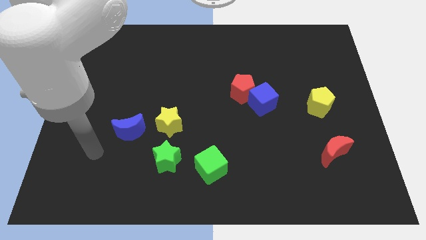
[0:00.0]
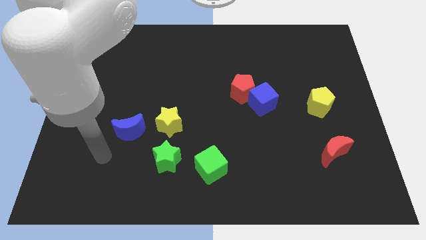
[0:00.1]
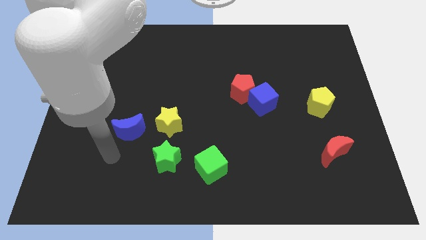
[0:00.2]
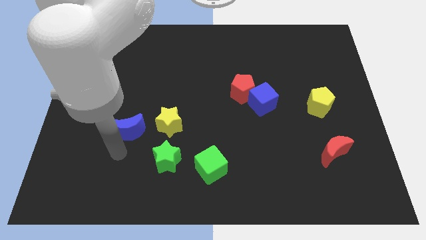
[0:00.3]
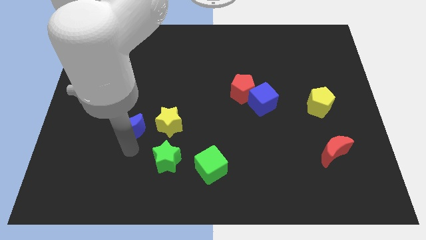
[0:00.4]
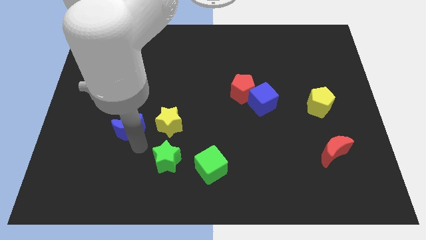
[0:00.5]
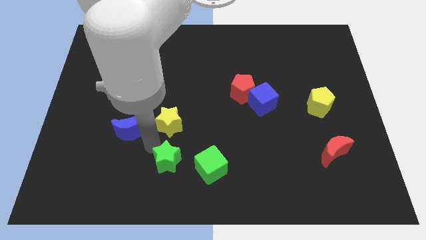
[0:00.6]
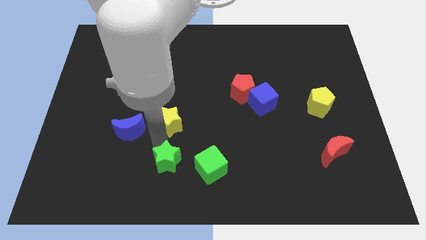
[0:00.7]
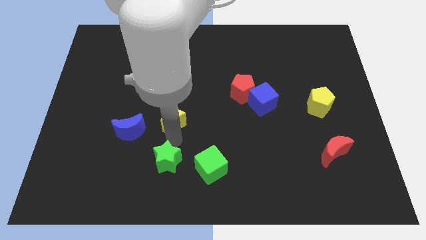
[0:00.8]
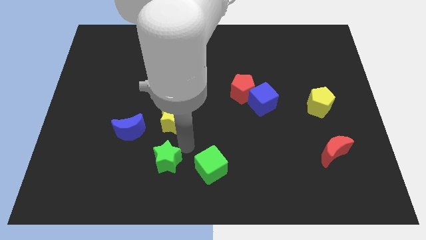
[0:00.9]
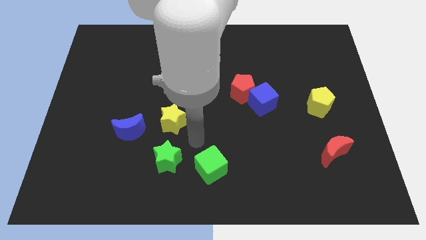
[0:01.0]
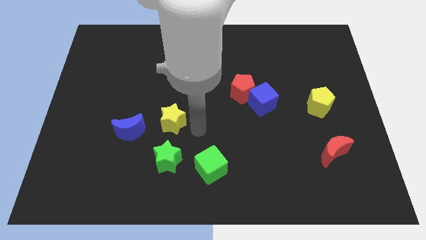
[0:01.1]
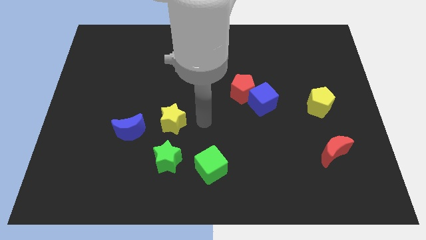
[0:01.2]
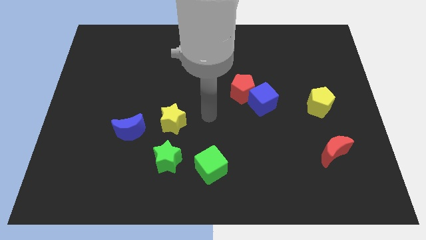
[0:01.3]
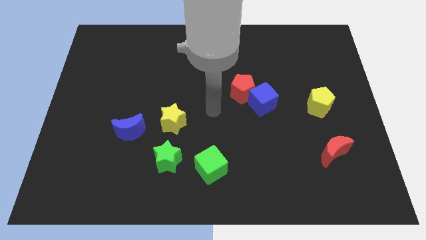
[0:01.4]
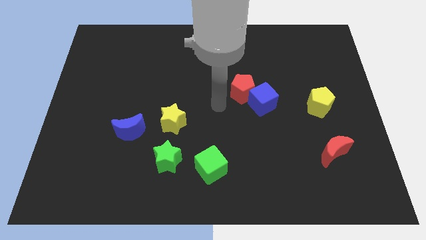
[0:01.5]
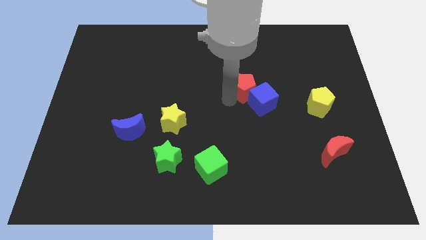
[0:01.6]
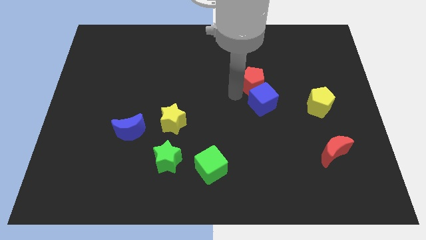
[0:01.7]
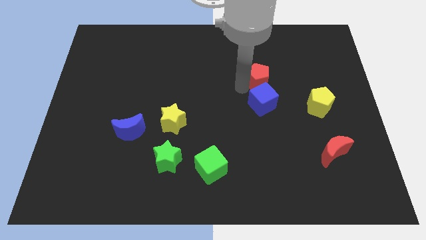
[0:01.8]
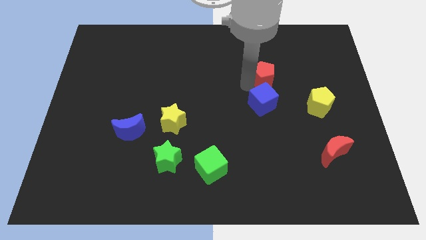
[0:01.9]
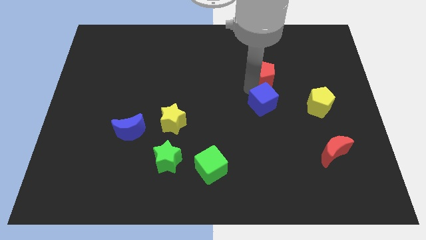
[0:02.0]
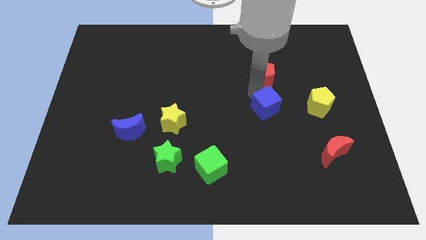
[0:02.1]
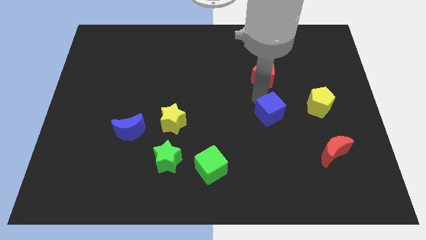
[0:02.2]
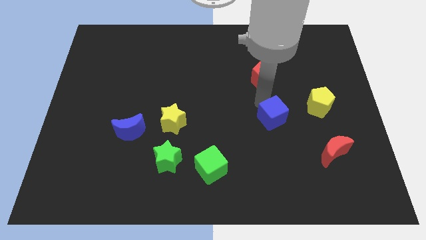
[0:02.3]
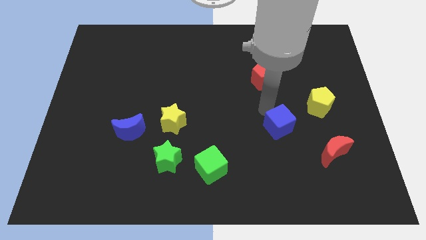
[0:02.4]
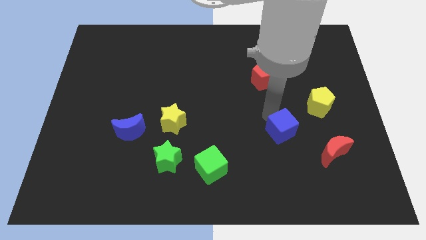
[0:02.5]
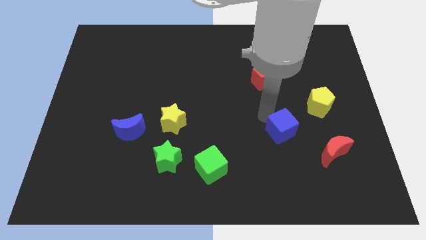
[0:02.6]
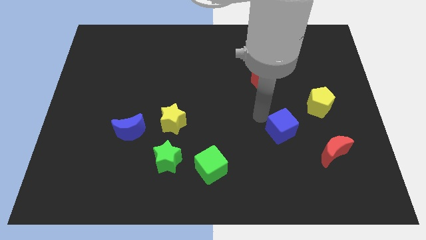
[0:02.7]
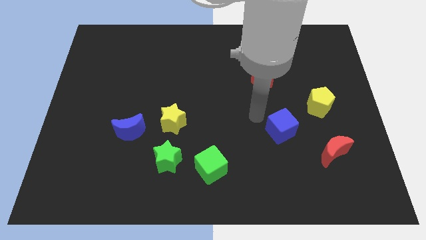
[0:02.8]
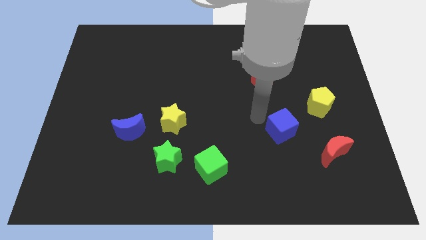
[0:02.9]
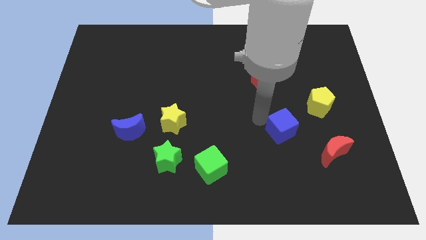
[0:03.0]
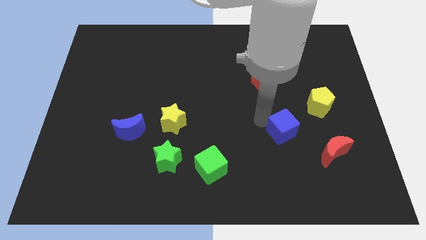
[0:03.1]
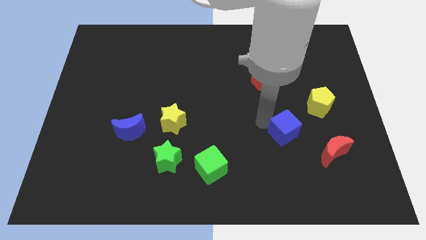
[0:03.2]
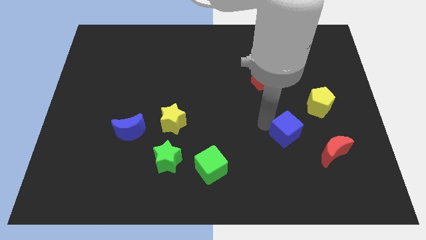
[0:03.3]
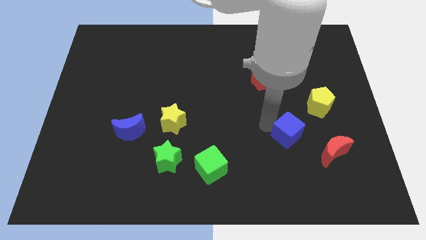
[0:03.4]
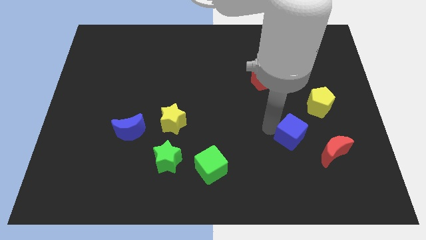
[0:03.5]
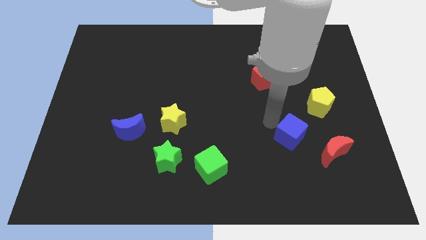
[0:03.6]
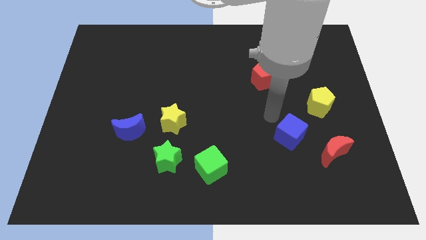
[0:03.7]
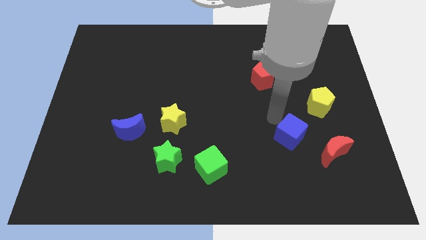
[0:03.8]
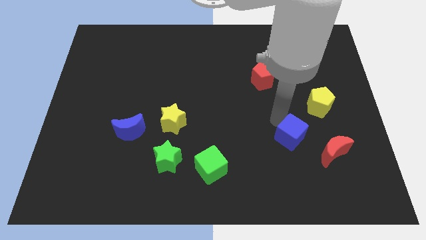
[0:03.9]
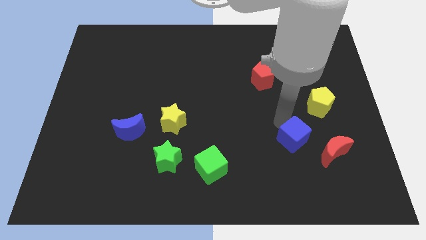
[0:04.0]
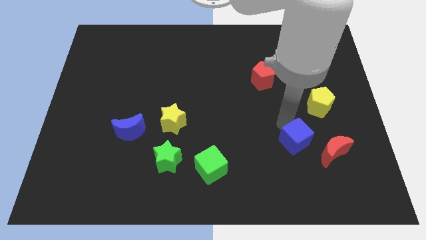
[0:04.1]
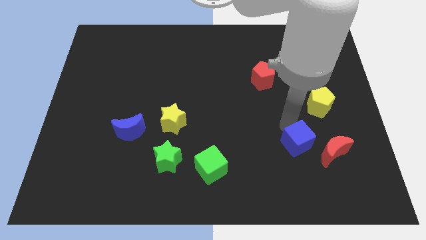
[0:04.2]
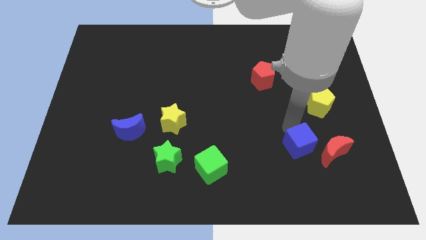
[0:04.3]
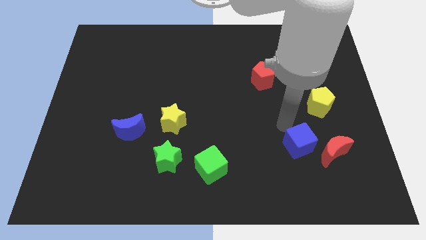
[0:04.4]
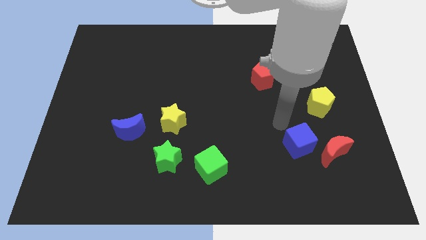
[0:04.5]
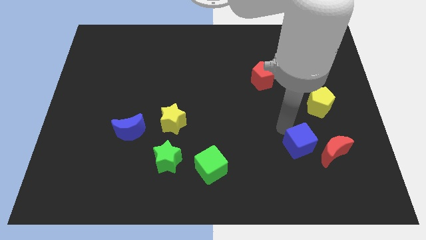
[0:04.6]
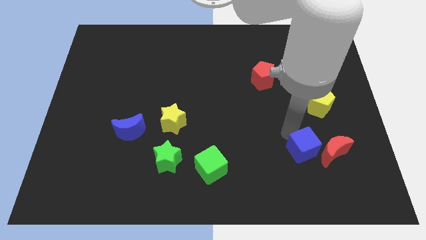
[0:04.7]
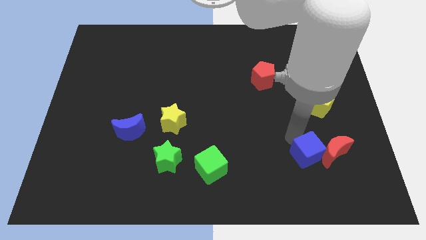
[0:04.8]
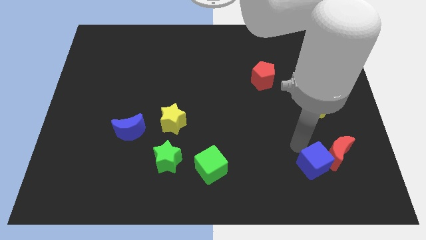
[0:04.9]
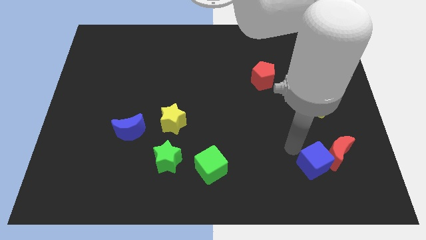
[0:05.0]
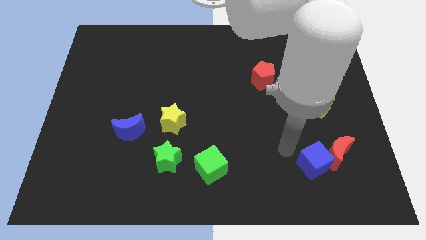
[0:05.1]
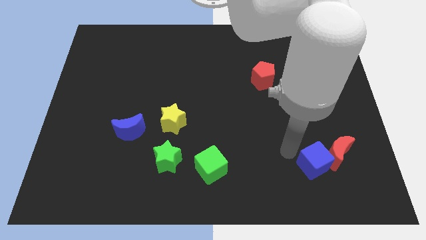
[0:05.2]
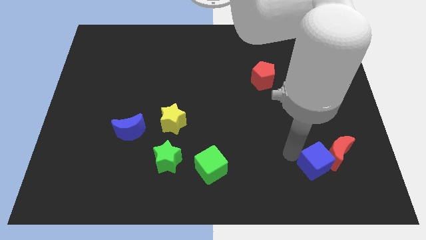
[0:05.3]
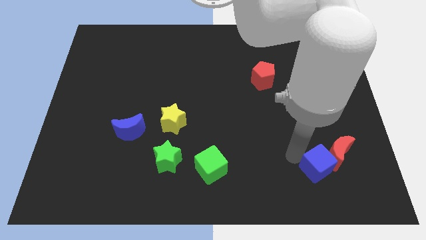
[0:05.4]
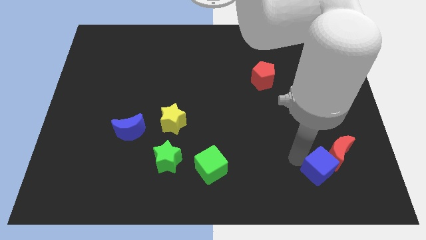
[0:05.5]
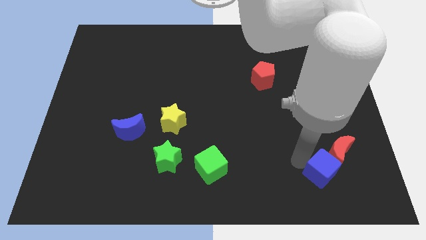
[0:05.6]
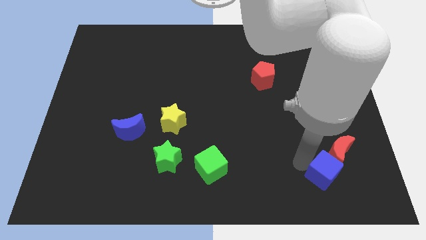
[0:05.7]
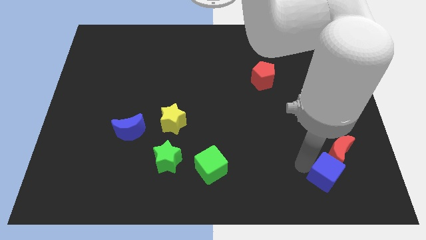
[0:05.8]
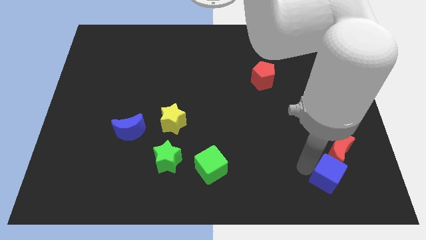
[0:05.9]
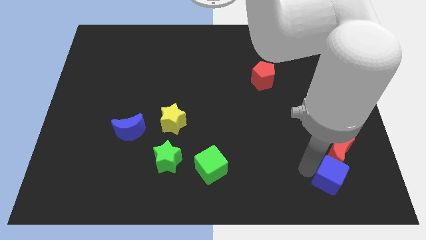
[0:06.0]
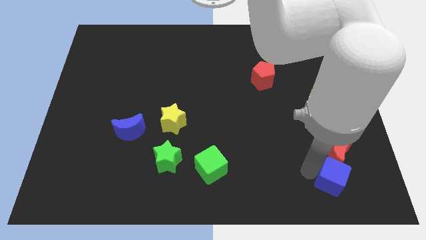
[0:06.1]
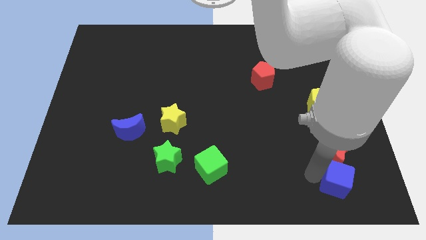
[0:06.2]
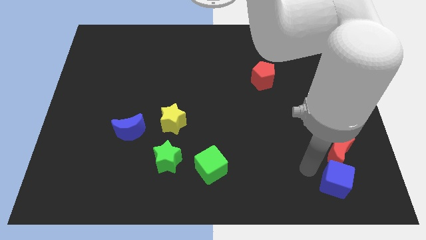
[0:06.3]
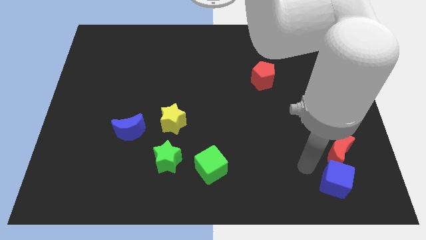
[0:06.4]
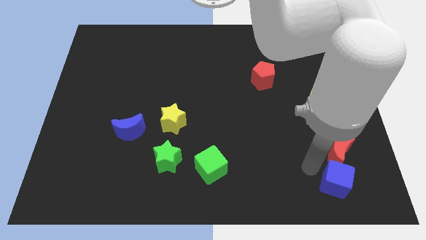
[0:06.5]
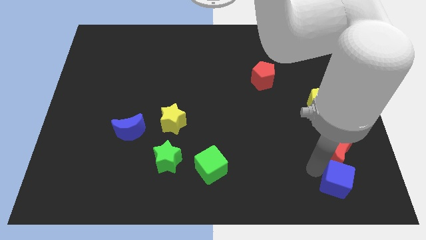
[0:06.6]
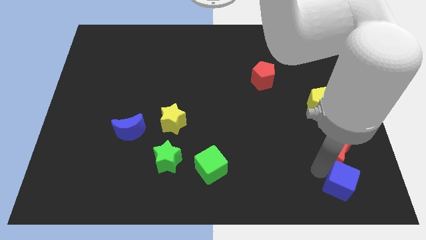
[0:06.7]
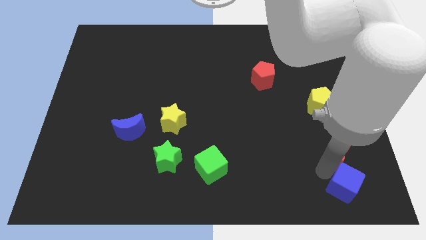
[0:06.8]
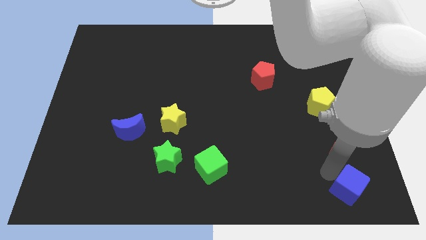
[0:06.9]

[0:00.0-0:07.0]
put the blue cube to the bottom right corner
